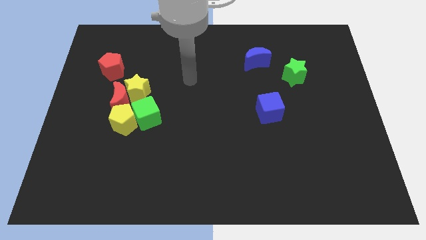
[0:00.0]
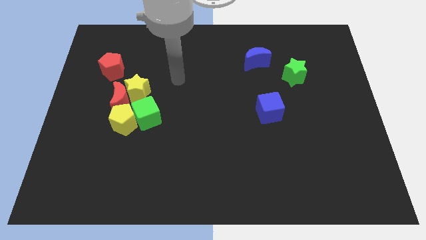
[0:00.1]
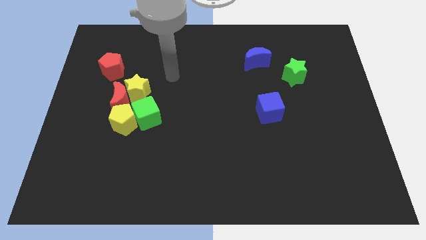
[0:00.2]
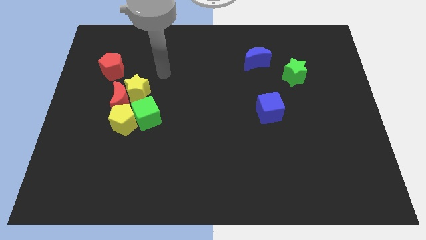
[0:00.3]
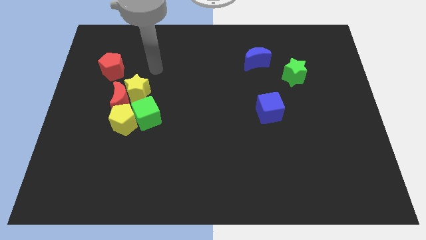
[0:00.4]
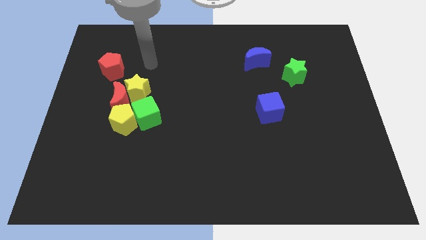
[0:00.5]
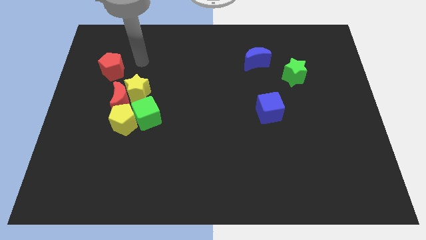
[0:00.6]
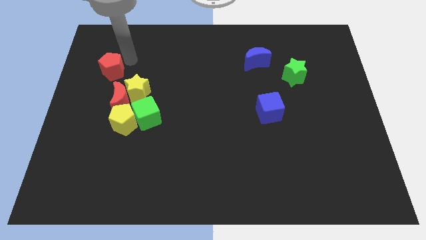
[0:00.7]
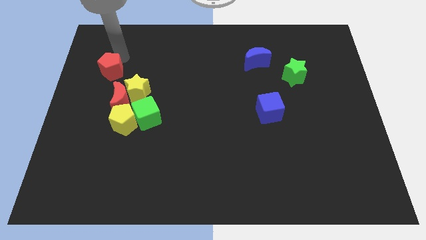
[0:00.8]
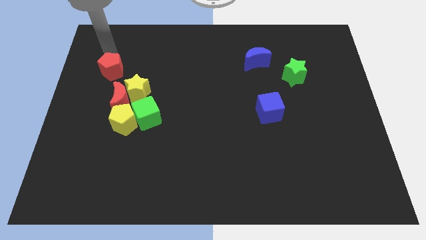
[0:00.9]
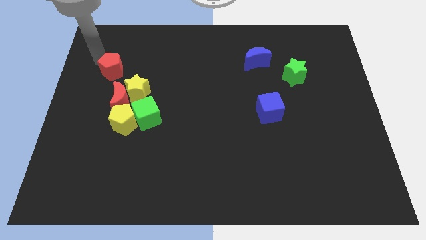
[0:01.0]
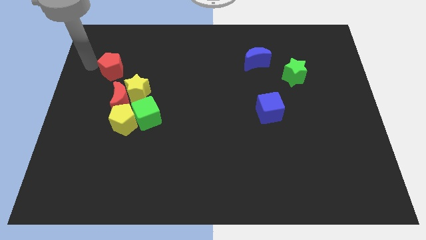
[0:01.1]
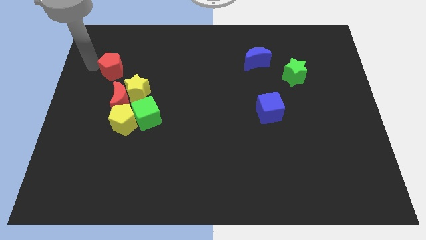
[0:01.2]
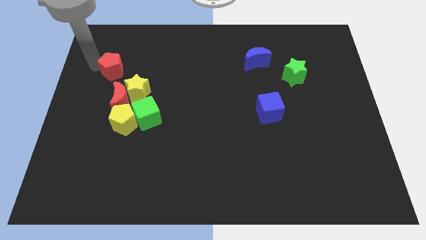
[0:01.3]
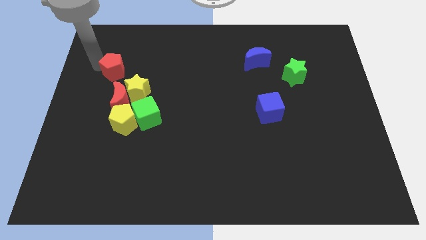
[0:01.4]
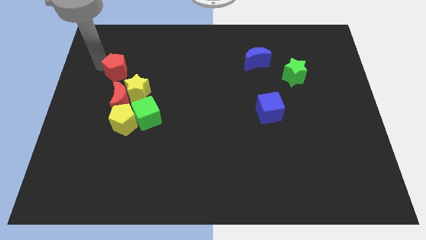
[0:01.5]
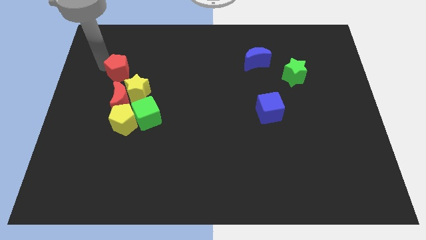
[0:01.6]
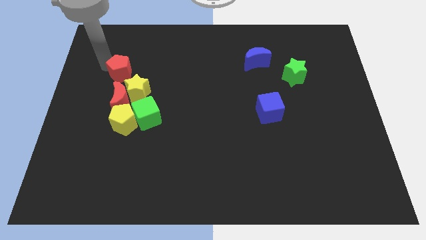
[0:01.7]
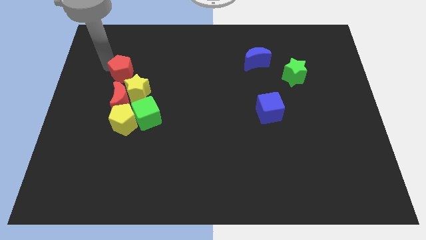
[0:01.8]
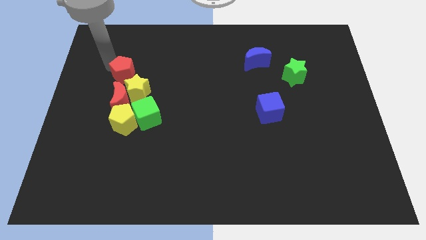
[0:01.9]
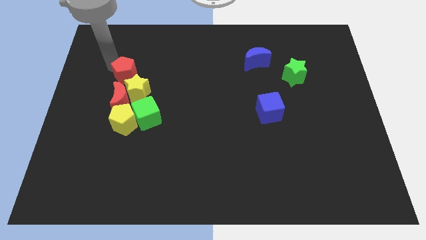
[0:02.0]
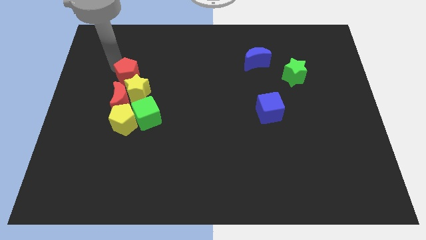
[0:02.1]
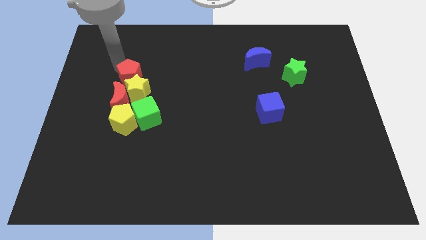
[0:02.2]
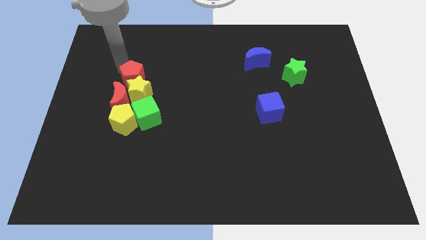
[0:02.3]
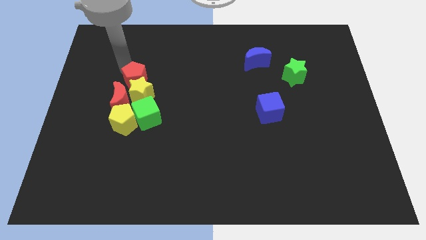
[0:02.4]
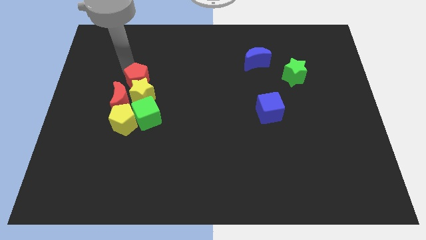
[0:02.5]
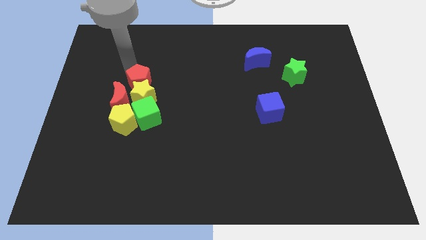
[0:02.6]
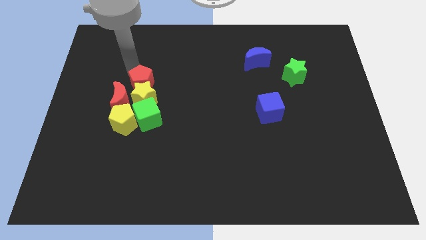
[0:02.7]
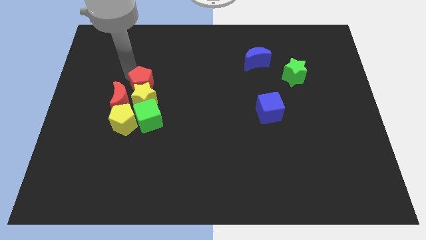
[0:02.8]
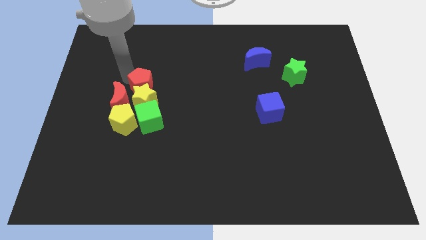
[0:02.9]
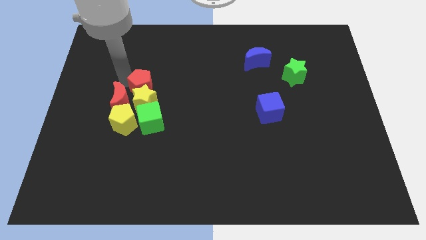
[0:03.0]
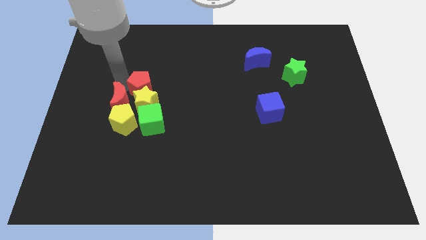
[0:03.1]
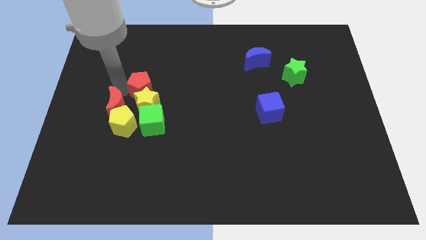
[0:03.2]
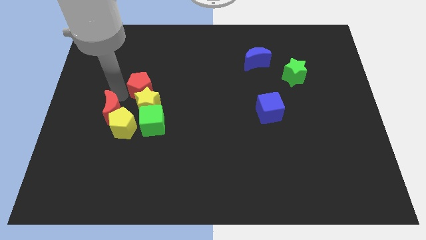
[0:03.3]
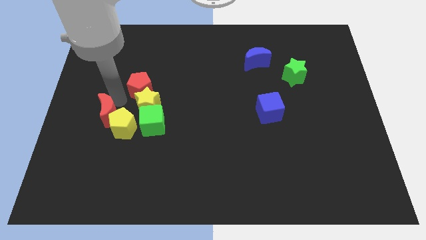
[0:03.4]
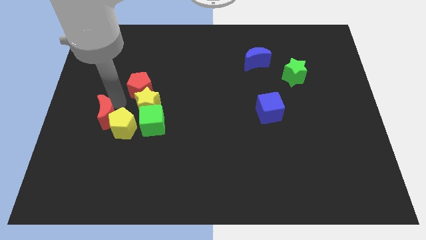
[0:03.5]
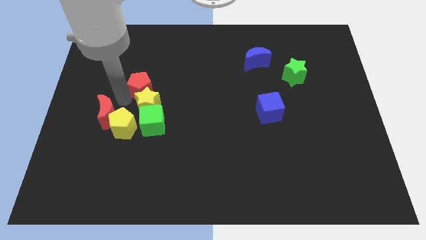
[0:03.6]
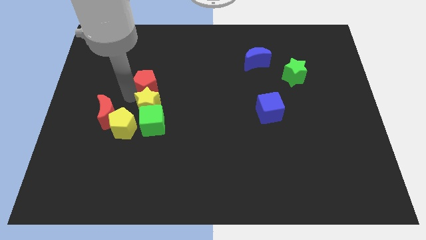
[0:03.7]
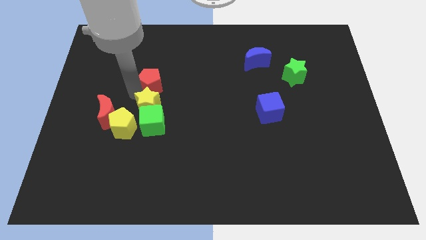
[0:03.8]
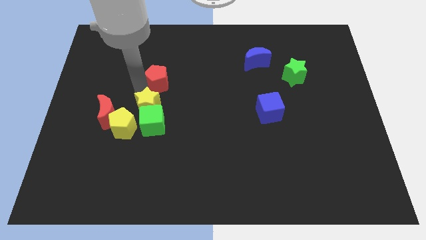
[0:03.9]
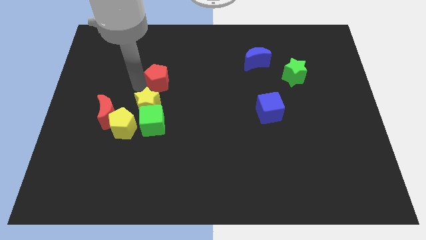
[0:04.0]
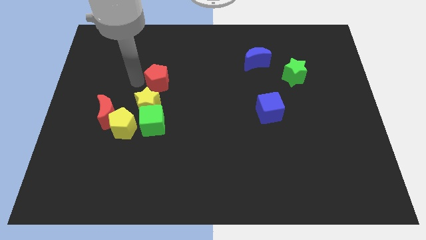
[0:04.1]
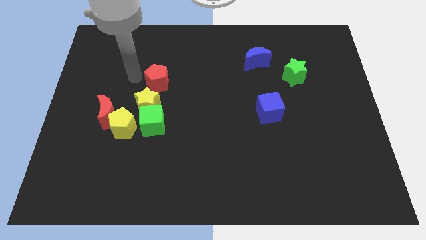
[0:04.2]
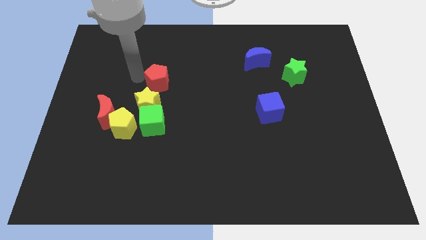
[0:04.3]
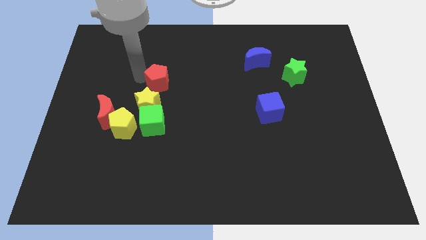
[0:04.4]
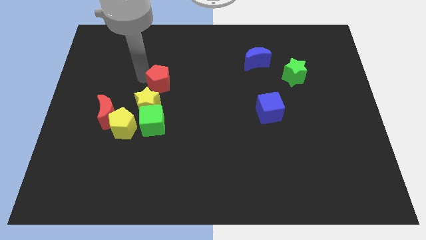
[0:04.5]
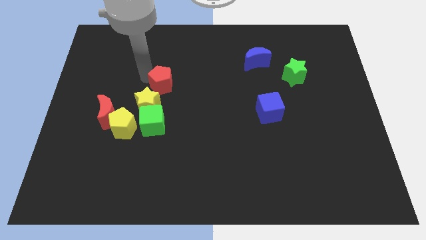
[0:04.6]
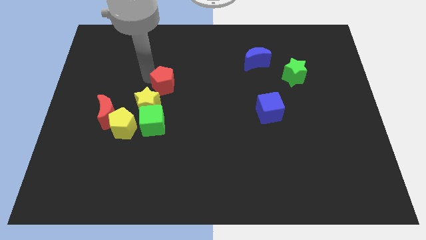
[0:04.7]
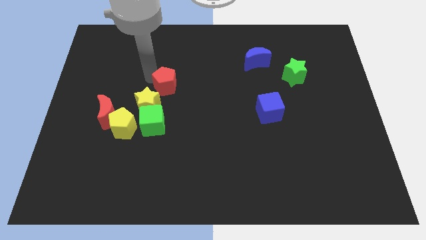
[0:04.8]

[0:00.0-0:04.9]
push the red pentagon to the middle of the board

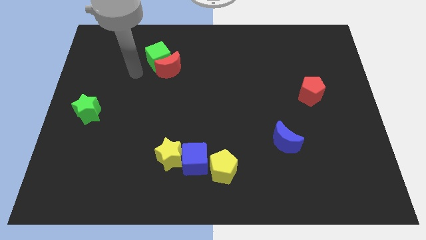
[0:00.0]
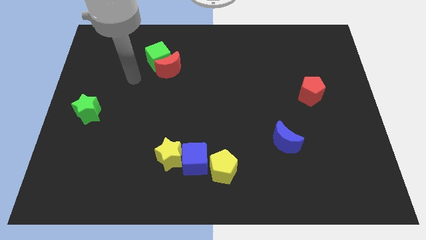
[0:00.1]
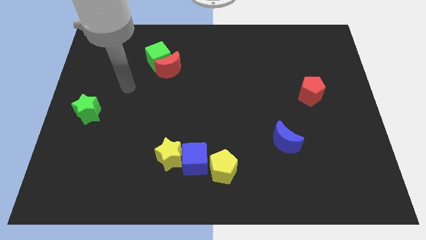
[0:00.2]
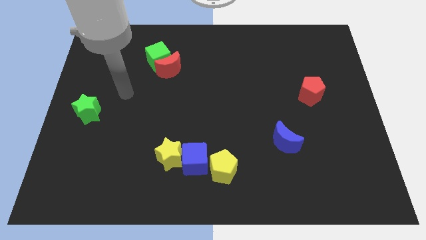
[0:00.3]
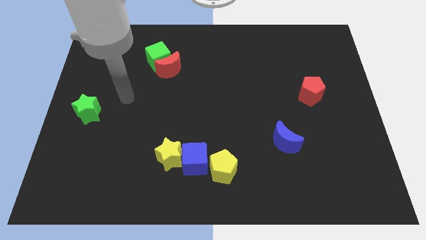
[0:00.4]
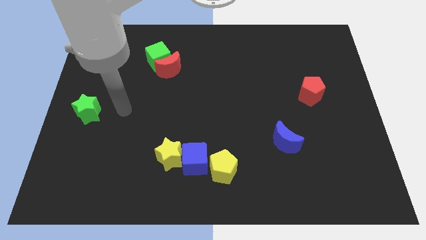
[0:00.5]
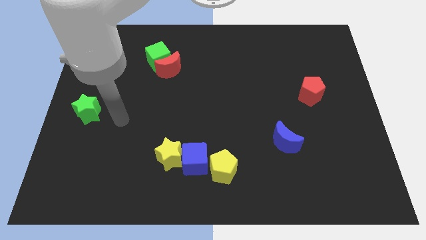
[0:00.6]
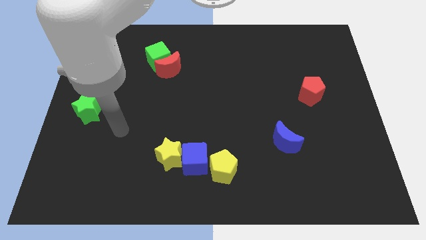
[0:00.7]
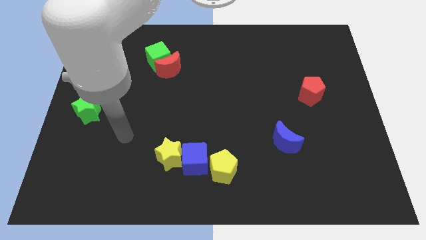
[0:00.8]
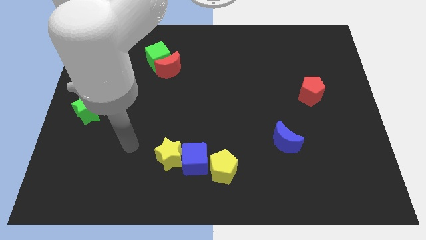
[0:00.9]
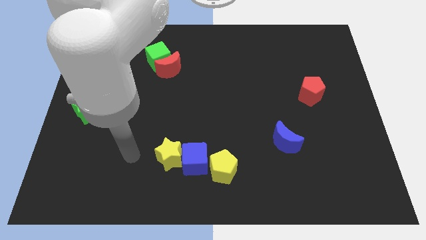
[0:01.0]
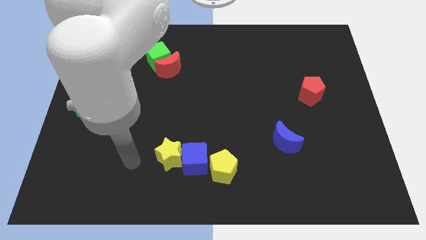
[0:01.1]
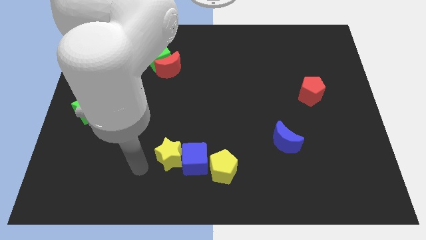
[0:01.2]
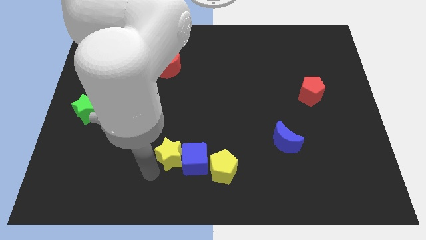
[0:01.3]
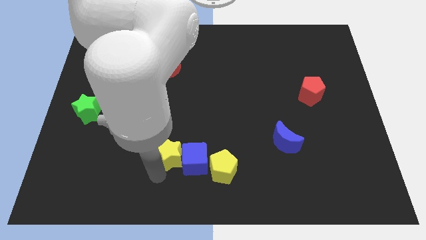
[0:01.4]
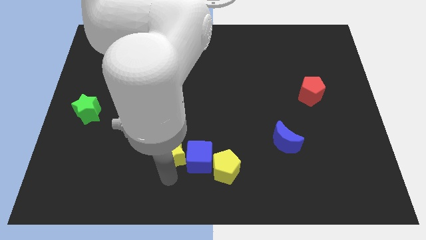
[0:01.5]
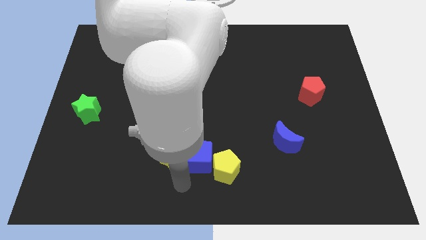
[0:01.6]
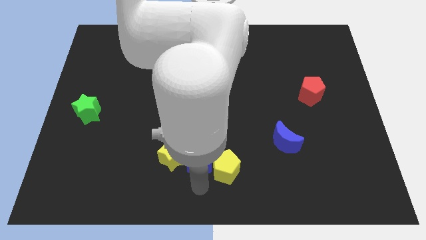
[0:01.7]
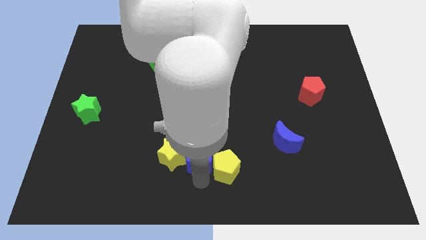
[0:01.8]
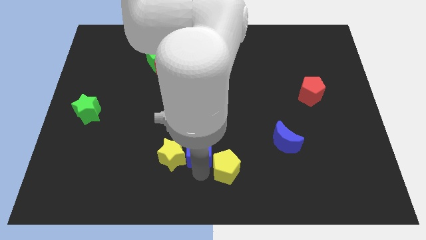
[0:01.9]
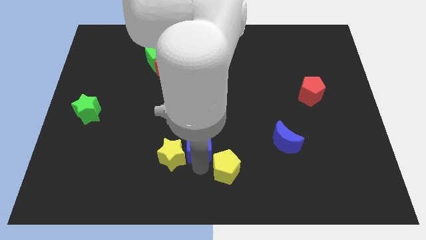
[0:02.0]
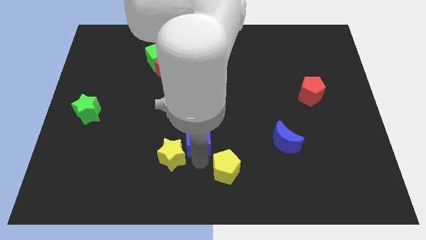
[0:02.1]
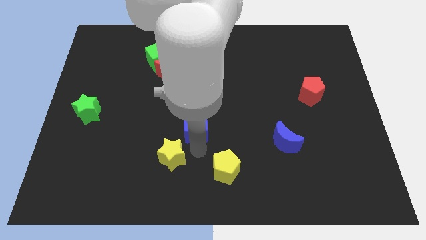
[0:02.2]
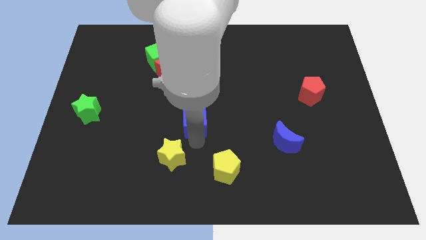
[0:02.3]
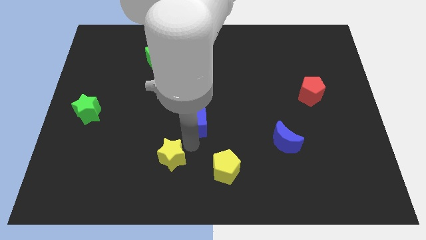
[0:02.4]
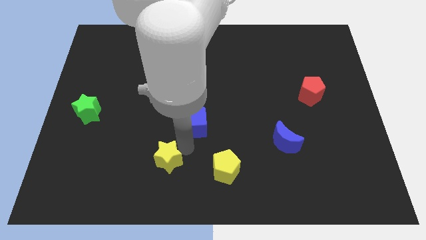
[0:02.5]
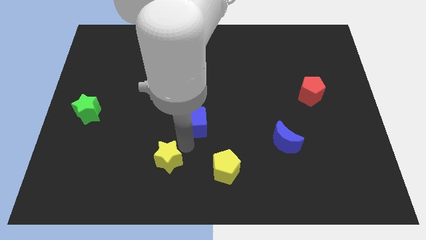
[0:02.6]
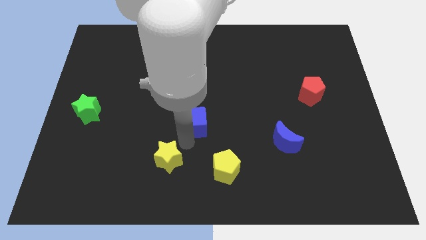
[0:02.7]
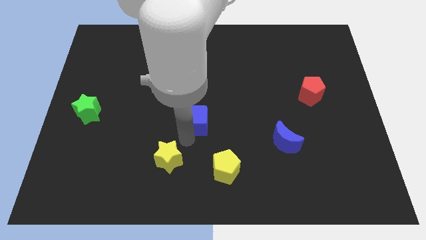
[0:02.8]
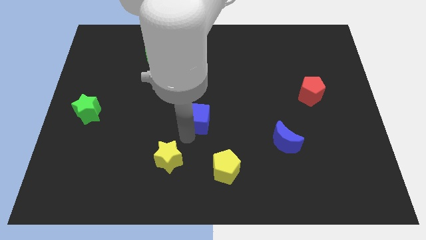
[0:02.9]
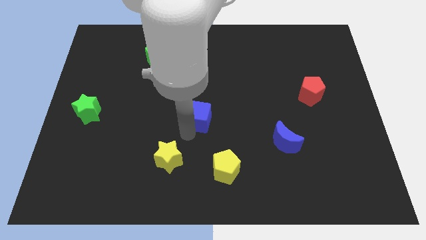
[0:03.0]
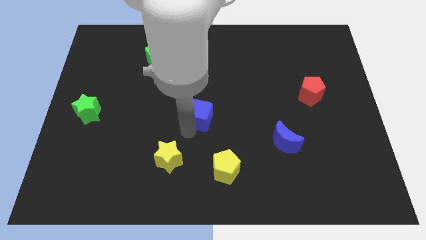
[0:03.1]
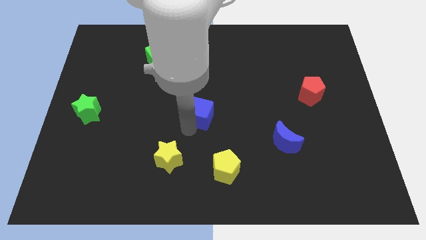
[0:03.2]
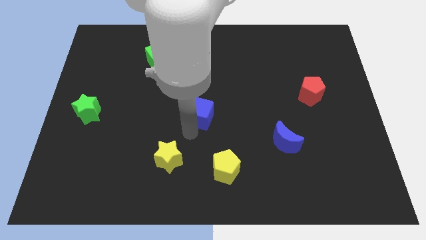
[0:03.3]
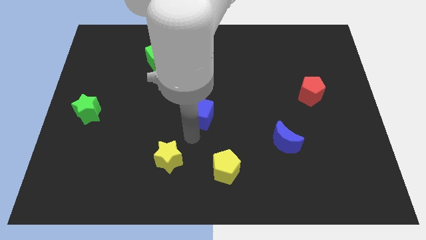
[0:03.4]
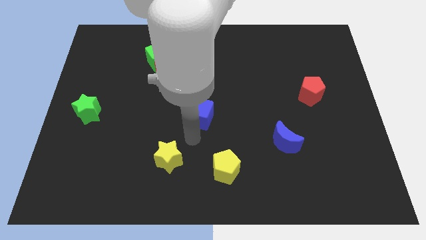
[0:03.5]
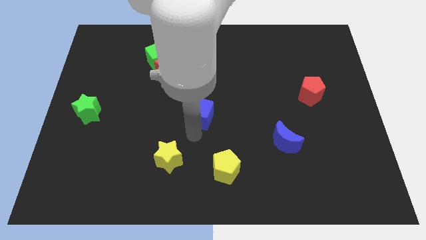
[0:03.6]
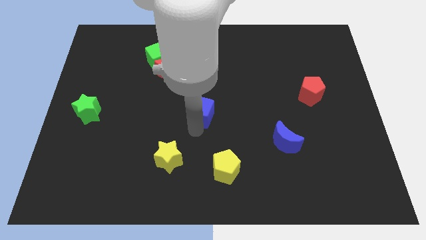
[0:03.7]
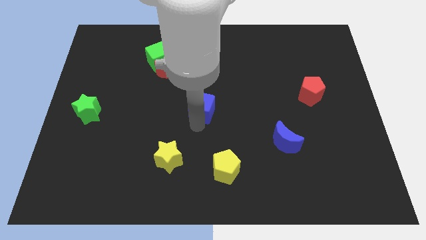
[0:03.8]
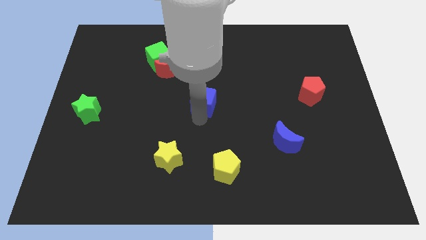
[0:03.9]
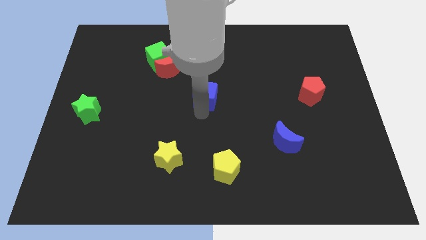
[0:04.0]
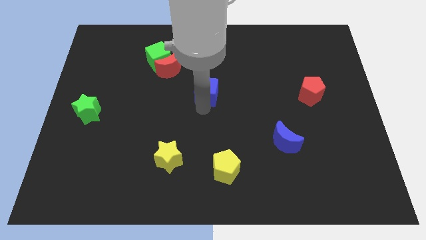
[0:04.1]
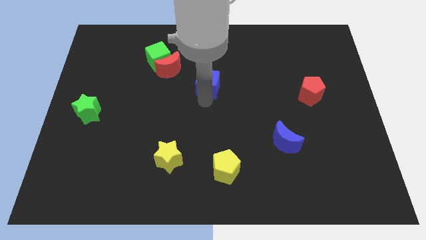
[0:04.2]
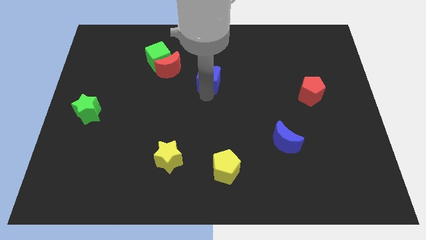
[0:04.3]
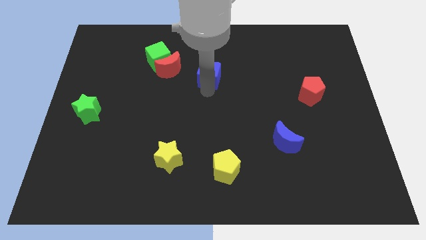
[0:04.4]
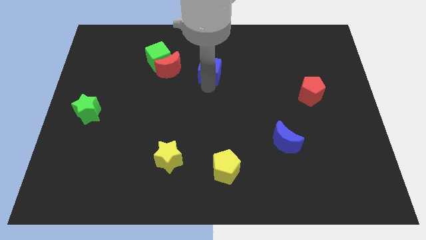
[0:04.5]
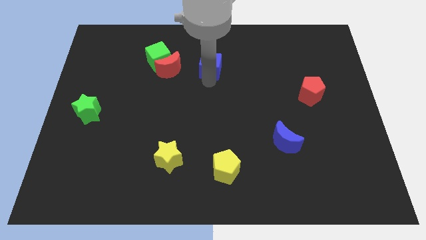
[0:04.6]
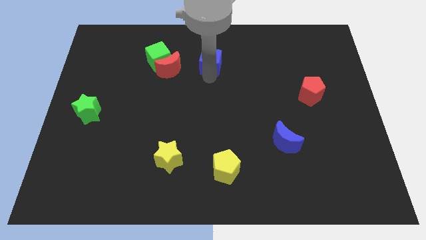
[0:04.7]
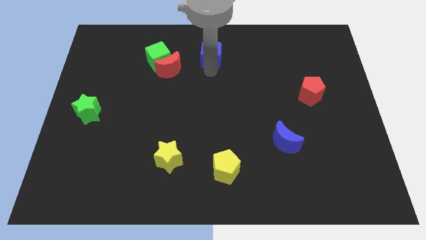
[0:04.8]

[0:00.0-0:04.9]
move the blue cube to the top side
